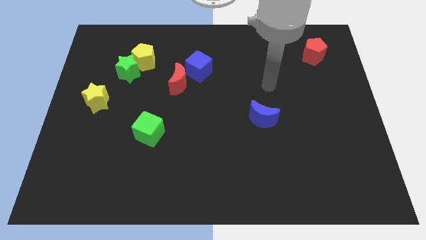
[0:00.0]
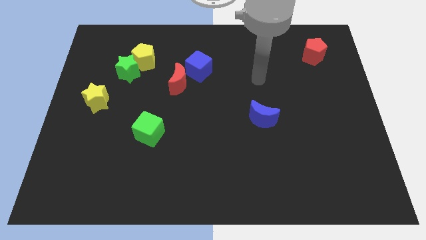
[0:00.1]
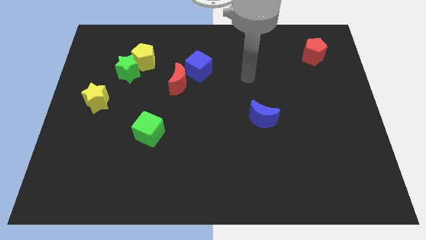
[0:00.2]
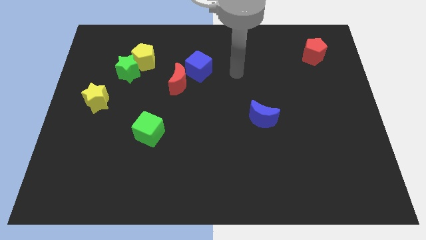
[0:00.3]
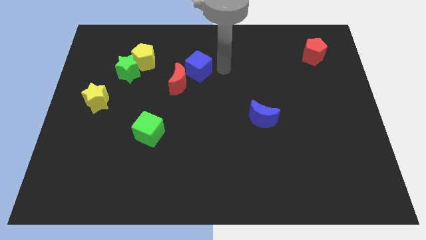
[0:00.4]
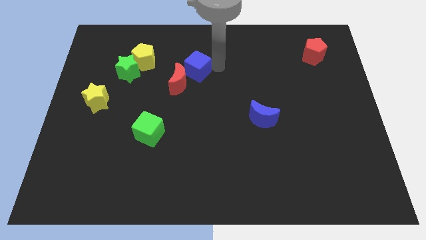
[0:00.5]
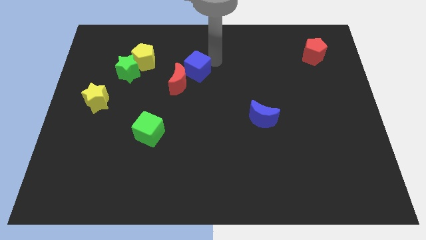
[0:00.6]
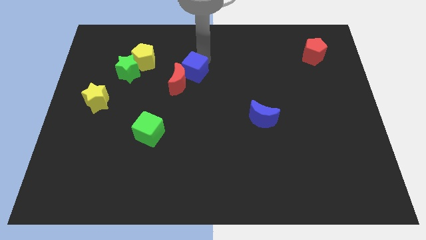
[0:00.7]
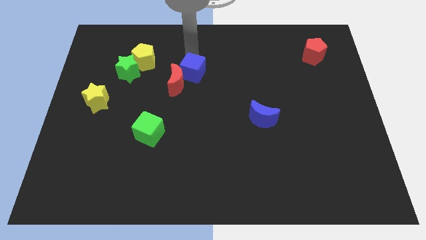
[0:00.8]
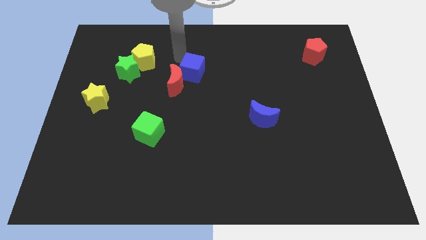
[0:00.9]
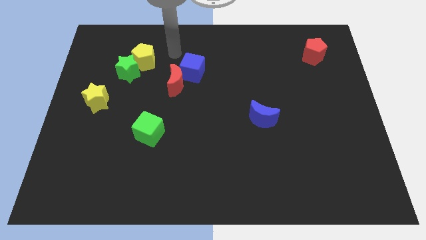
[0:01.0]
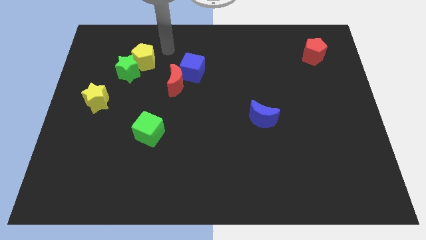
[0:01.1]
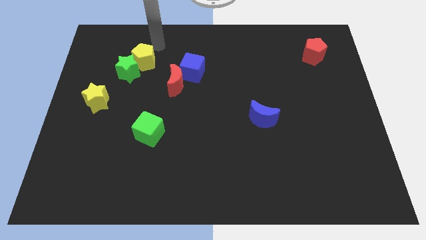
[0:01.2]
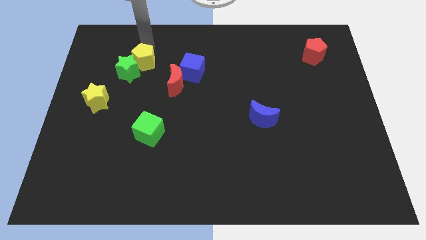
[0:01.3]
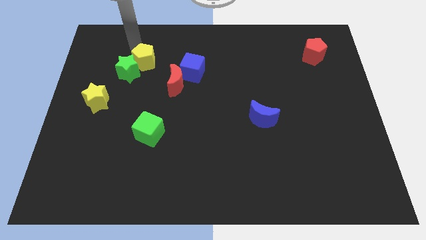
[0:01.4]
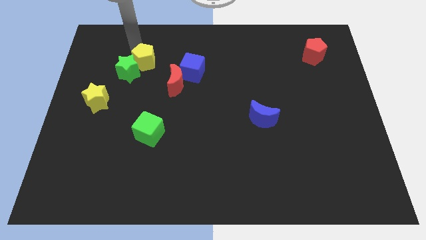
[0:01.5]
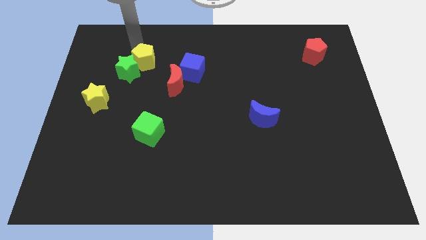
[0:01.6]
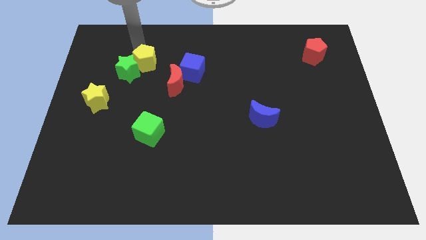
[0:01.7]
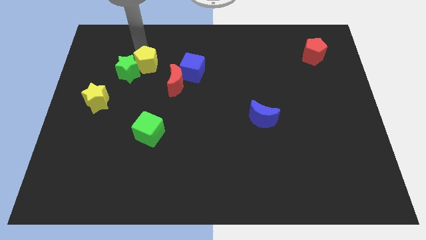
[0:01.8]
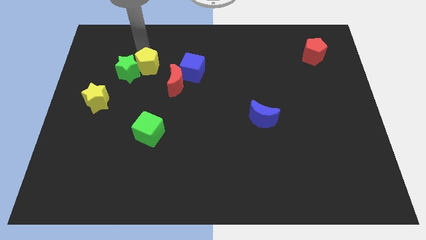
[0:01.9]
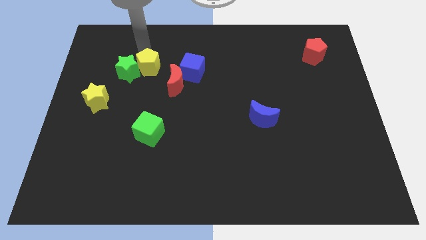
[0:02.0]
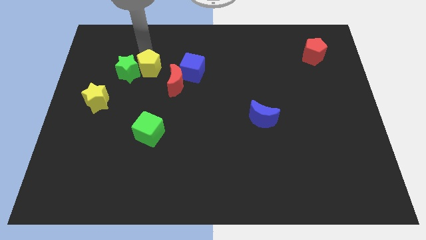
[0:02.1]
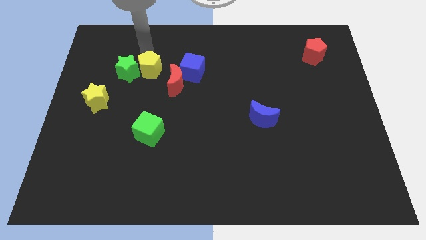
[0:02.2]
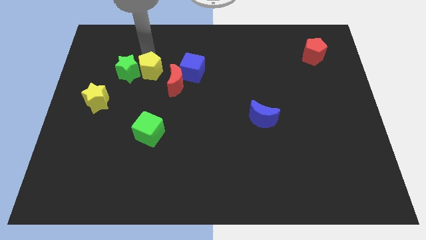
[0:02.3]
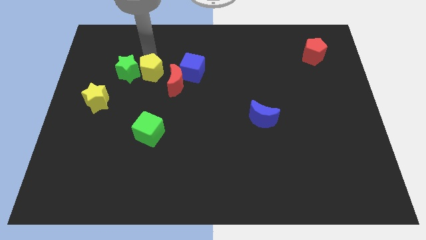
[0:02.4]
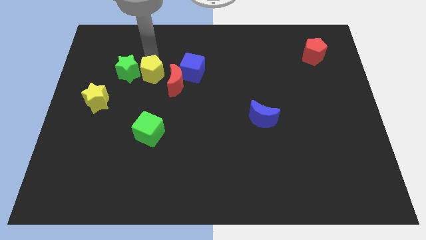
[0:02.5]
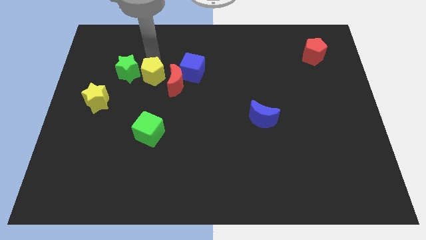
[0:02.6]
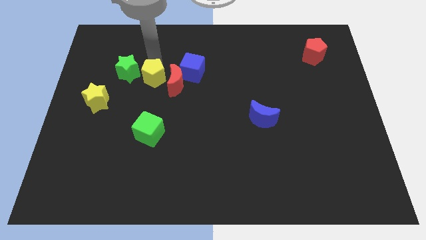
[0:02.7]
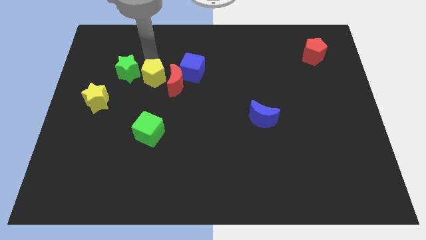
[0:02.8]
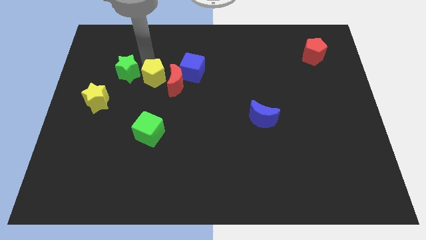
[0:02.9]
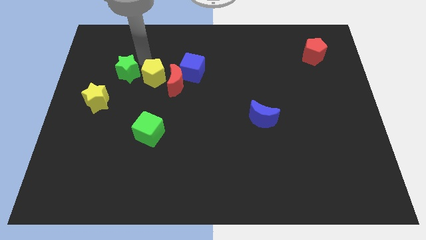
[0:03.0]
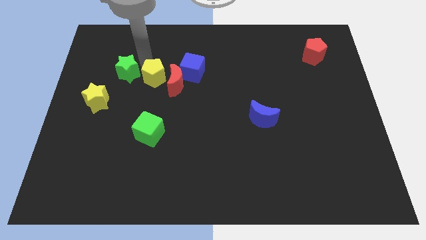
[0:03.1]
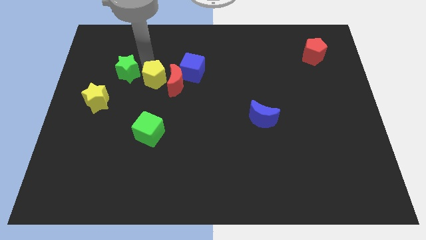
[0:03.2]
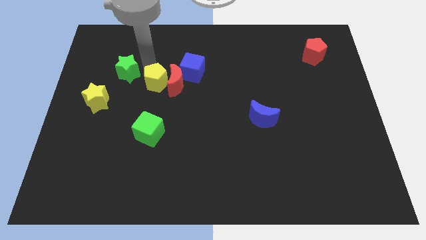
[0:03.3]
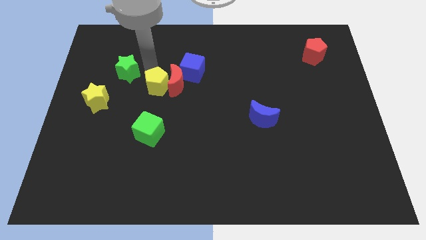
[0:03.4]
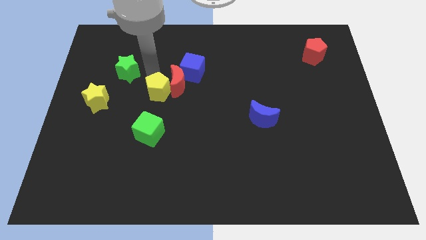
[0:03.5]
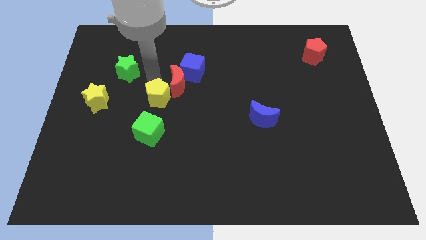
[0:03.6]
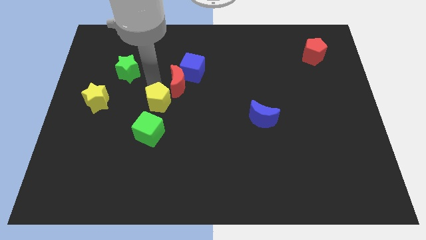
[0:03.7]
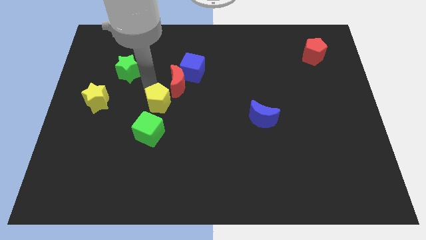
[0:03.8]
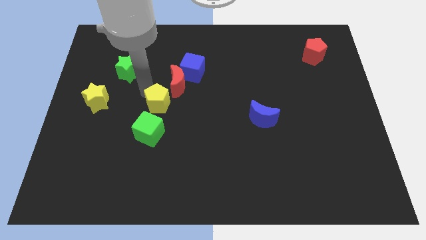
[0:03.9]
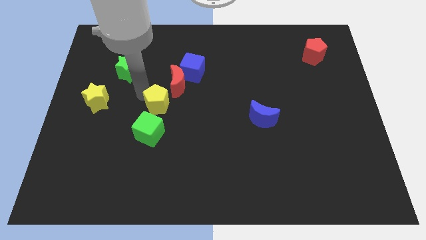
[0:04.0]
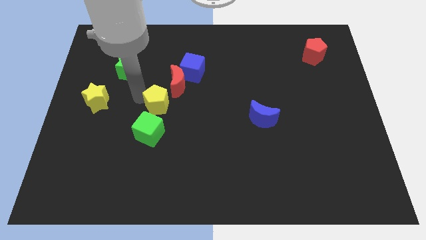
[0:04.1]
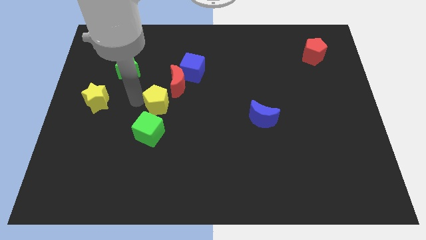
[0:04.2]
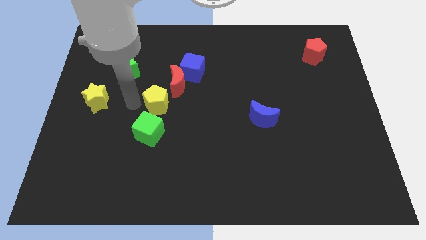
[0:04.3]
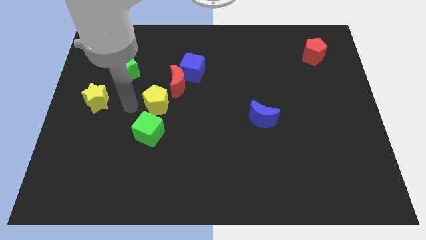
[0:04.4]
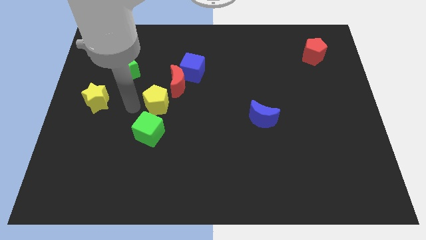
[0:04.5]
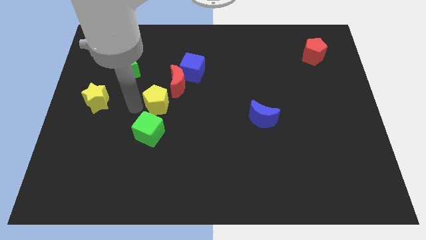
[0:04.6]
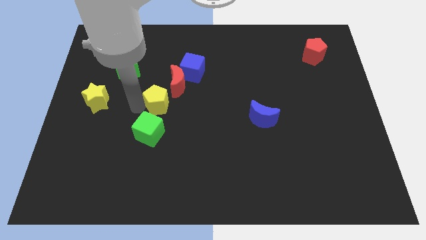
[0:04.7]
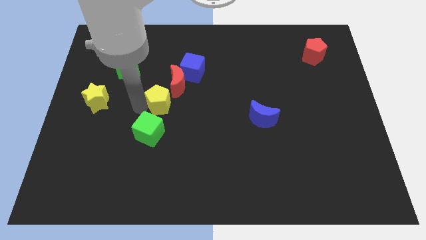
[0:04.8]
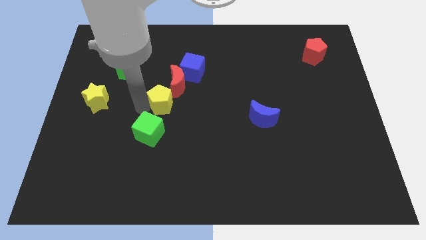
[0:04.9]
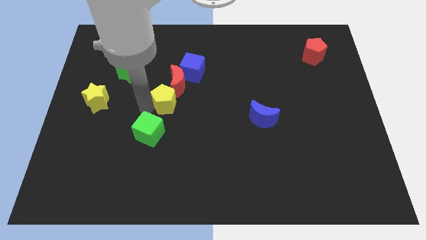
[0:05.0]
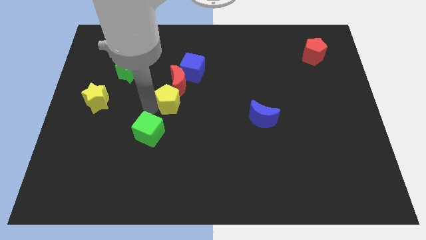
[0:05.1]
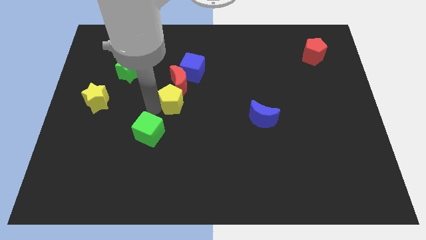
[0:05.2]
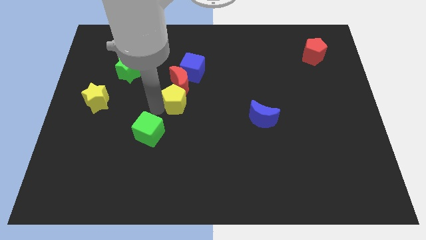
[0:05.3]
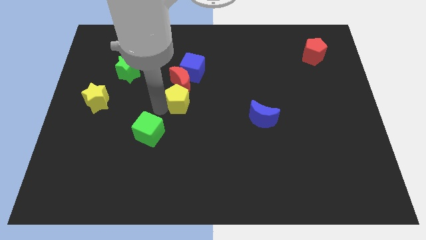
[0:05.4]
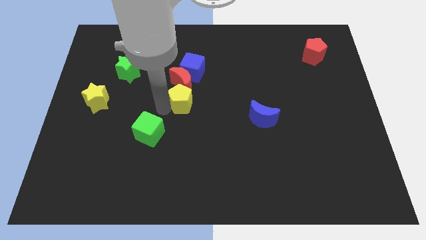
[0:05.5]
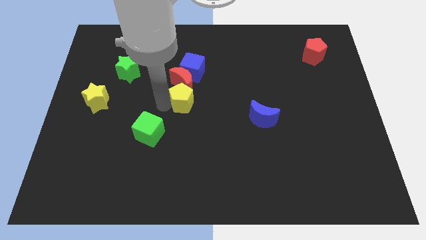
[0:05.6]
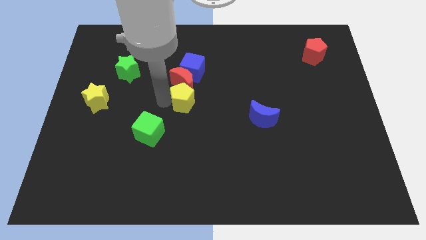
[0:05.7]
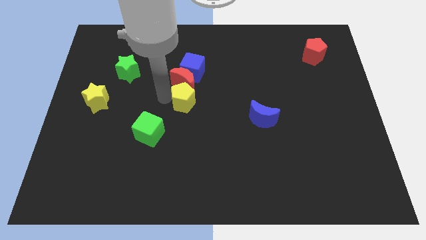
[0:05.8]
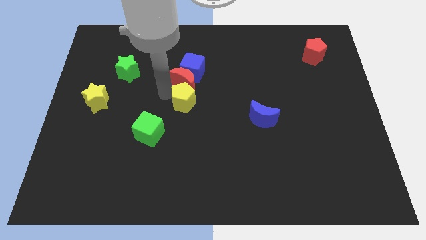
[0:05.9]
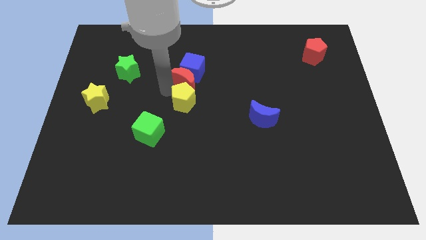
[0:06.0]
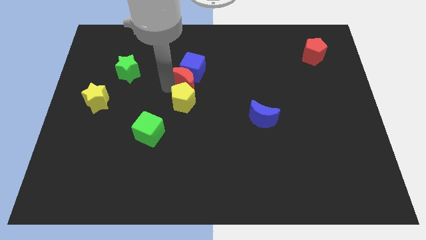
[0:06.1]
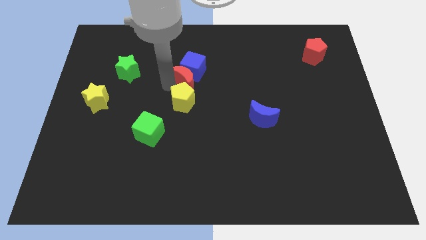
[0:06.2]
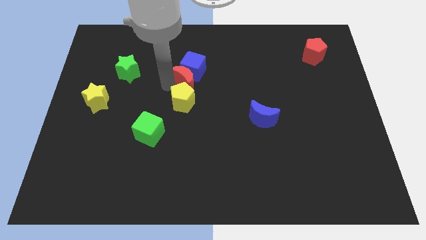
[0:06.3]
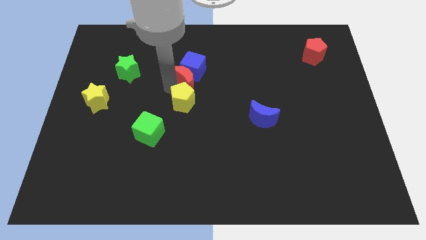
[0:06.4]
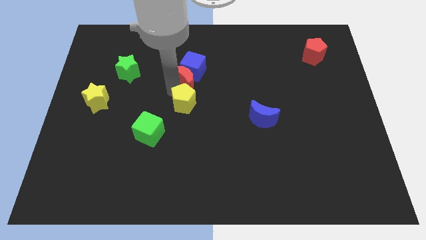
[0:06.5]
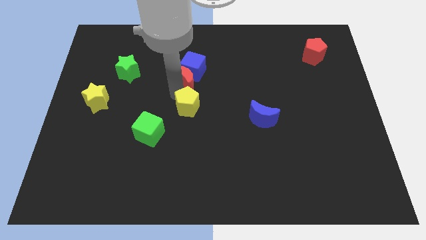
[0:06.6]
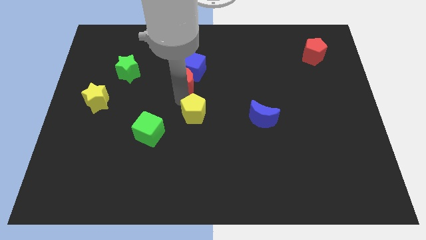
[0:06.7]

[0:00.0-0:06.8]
slide the yellow pentagon down and then right

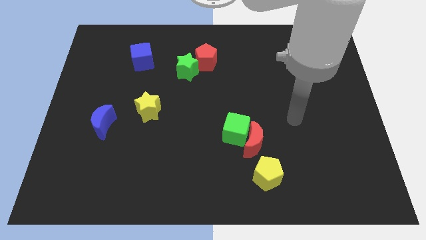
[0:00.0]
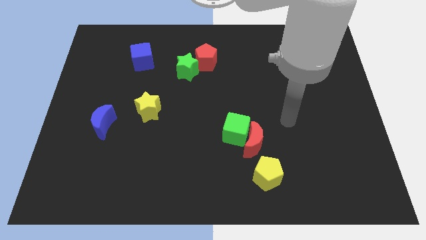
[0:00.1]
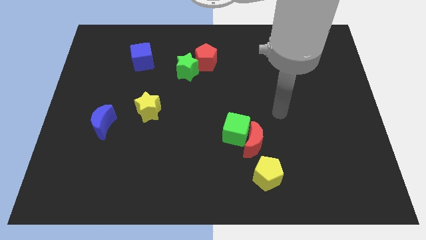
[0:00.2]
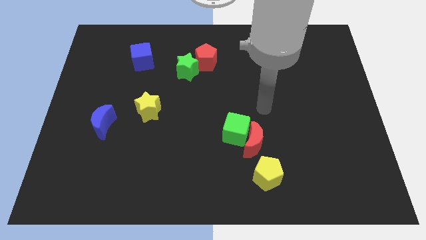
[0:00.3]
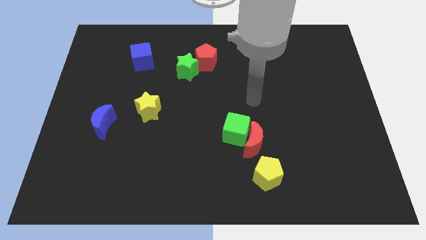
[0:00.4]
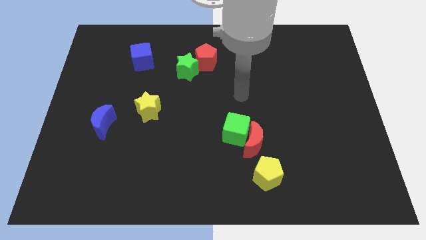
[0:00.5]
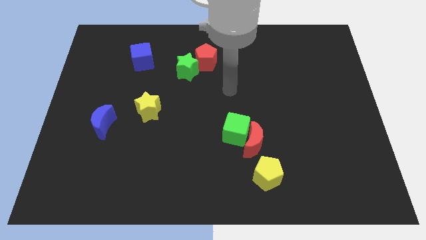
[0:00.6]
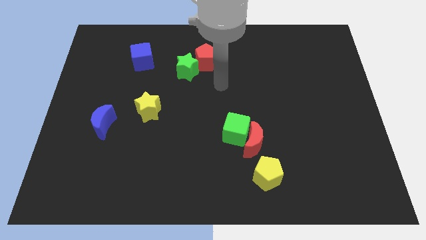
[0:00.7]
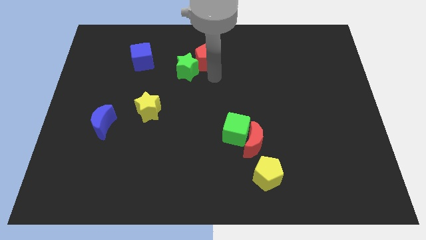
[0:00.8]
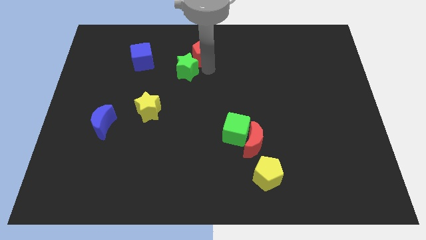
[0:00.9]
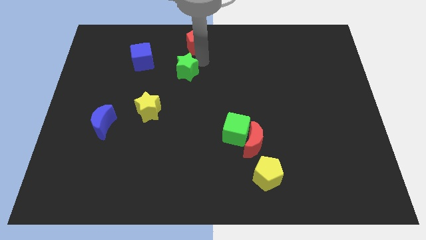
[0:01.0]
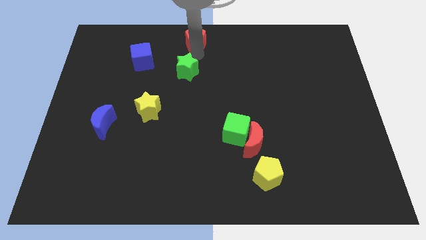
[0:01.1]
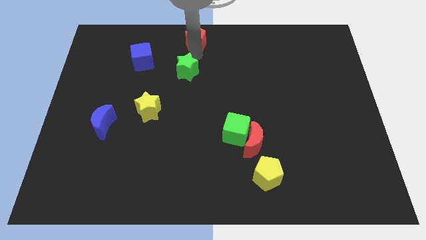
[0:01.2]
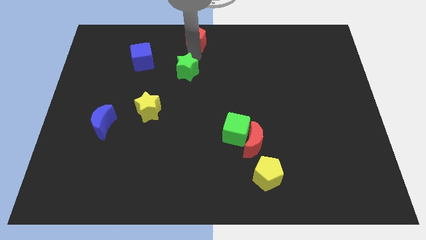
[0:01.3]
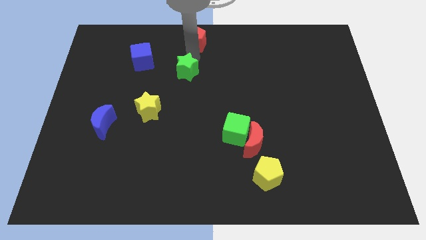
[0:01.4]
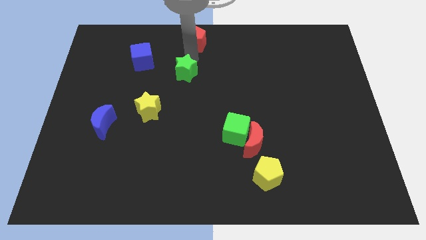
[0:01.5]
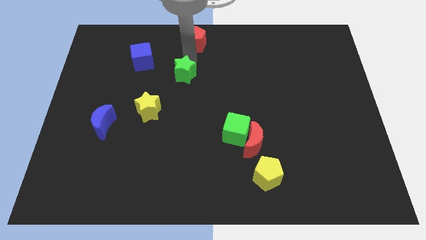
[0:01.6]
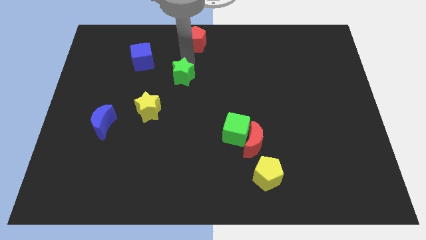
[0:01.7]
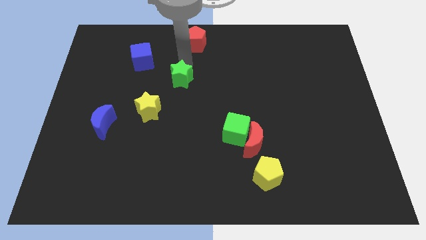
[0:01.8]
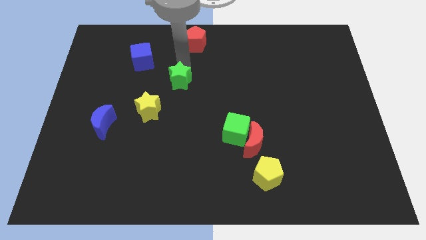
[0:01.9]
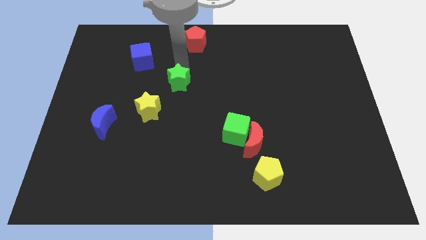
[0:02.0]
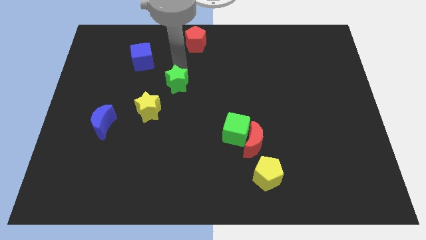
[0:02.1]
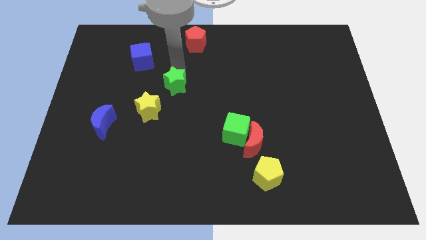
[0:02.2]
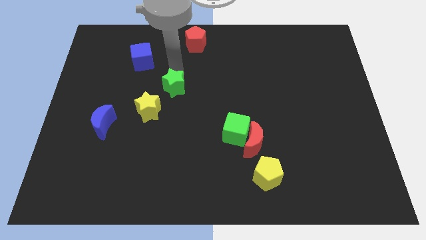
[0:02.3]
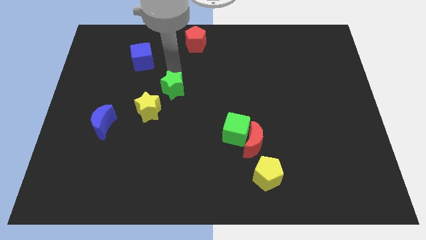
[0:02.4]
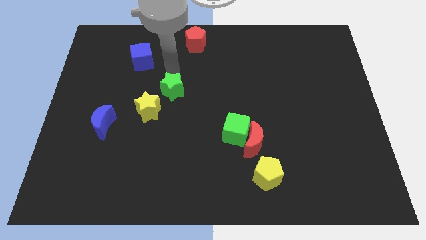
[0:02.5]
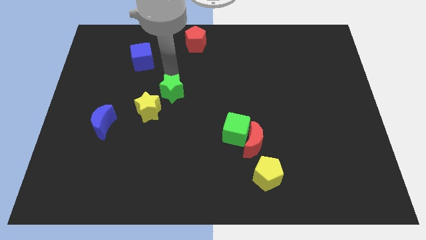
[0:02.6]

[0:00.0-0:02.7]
move the green star downwards a little bit
